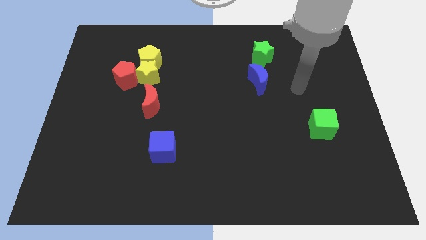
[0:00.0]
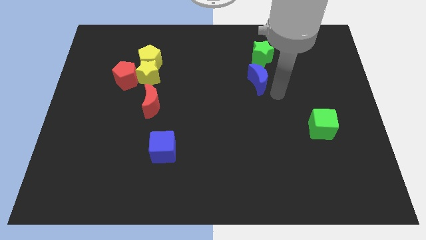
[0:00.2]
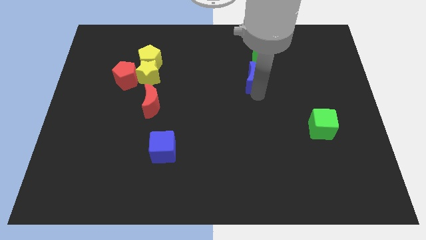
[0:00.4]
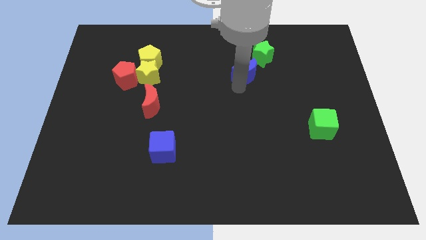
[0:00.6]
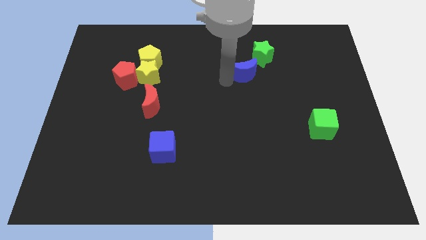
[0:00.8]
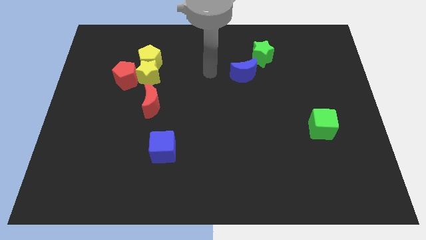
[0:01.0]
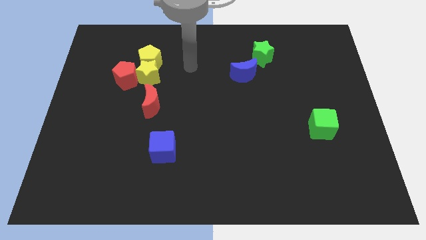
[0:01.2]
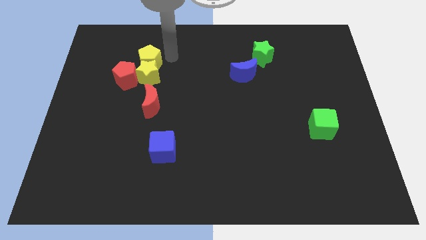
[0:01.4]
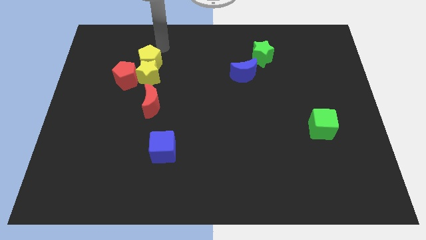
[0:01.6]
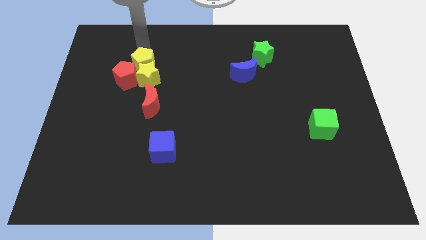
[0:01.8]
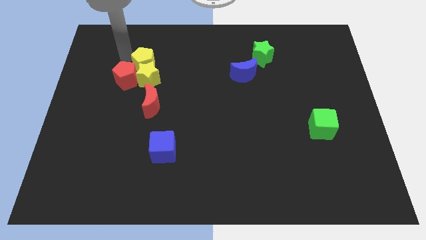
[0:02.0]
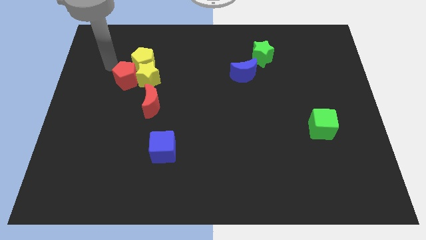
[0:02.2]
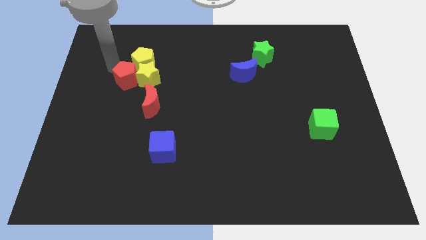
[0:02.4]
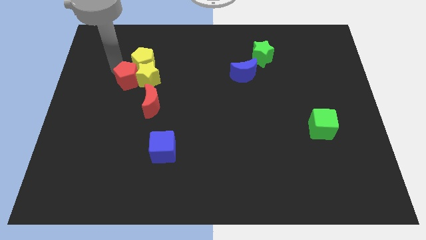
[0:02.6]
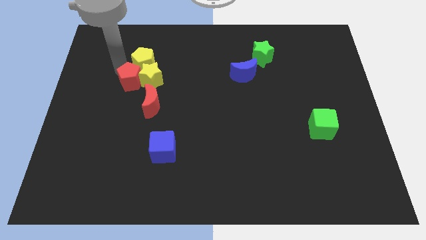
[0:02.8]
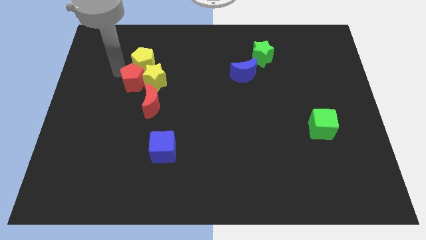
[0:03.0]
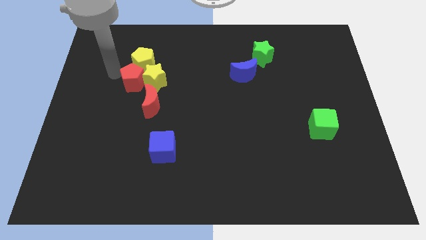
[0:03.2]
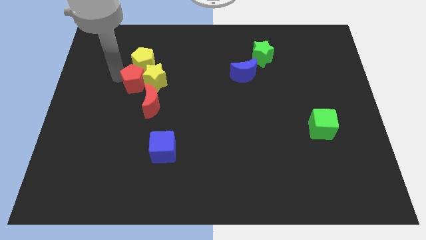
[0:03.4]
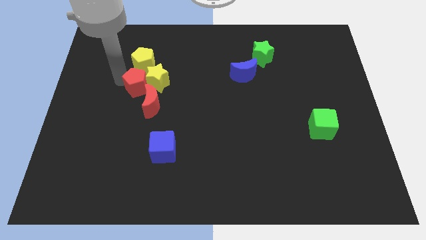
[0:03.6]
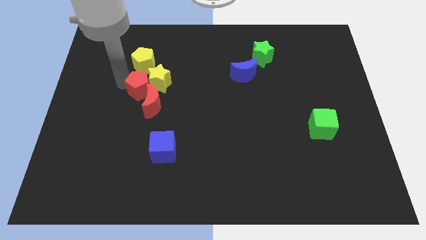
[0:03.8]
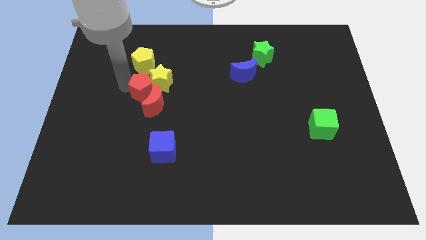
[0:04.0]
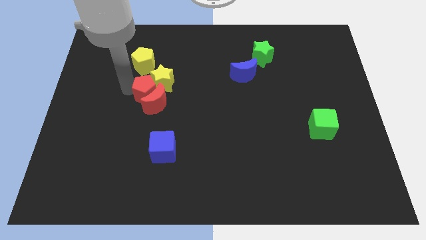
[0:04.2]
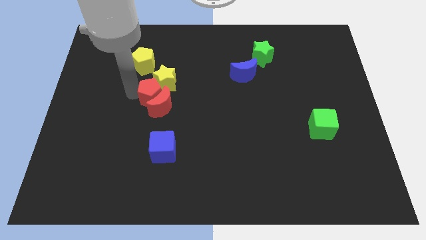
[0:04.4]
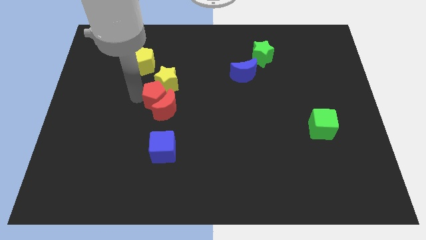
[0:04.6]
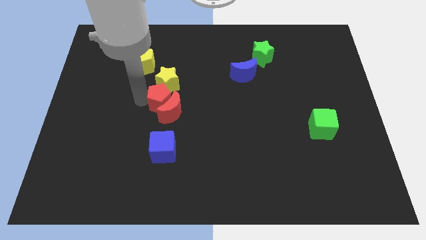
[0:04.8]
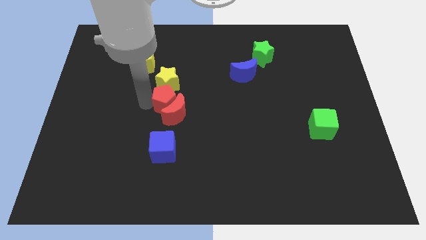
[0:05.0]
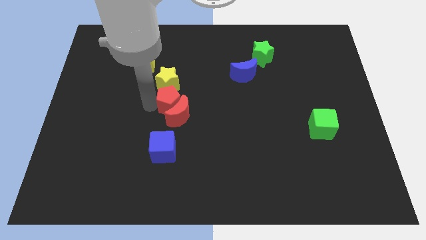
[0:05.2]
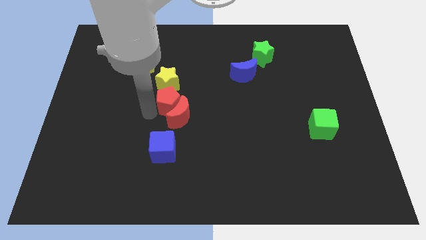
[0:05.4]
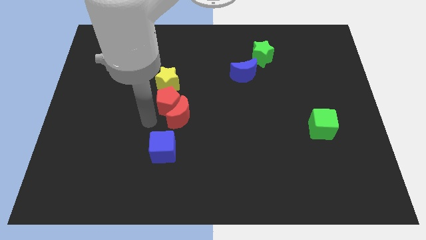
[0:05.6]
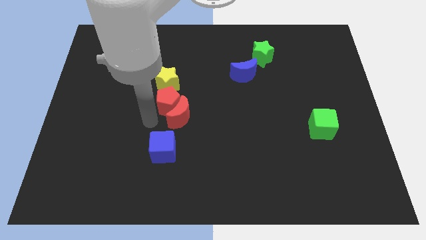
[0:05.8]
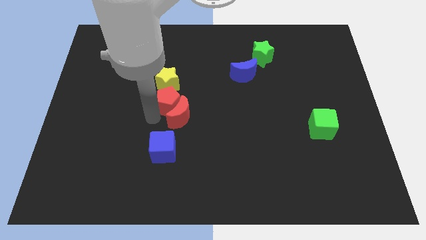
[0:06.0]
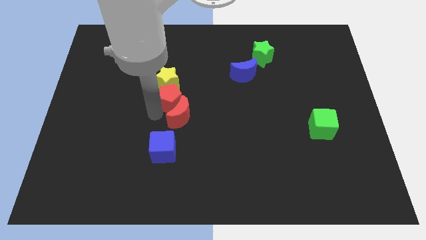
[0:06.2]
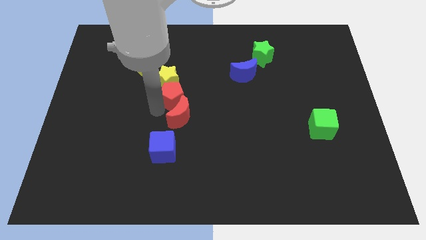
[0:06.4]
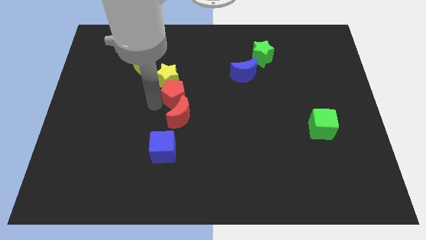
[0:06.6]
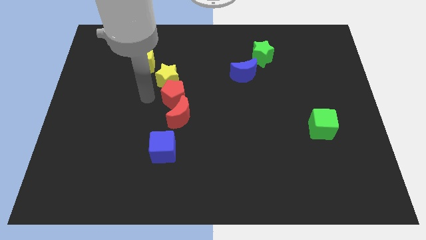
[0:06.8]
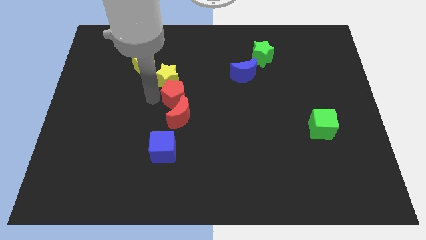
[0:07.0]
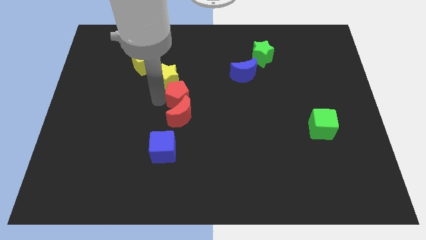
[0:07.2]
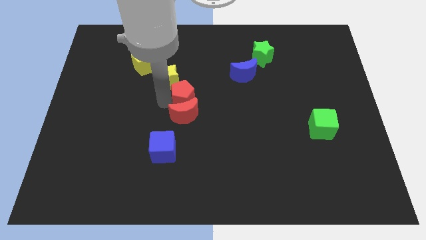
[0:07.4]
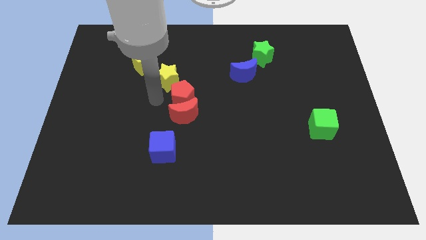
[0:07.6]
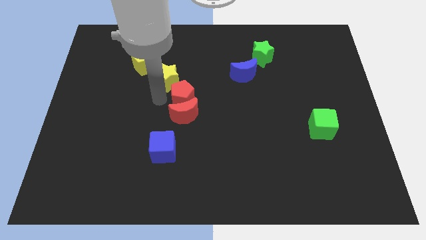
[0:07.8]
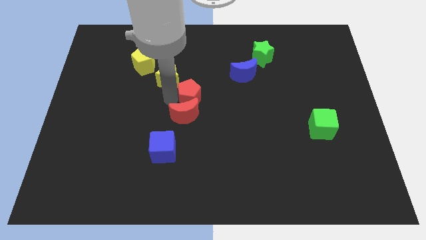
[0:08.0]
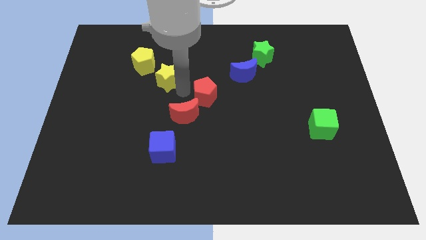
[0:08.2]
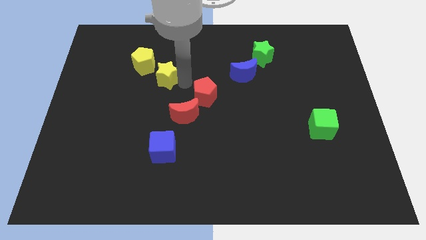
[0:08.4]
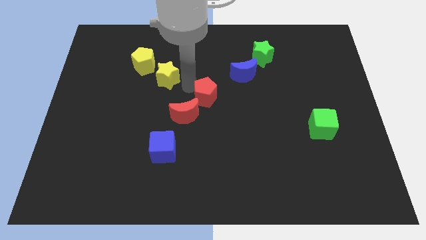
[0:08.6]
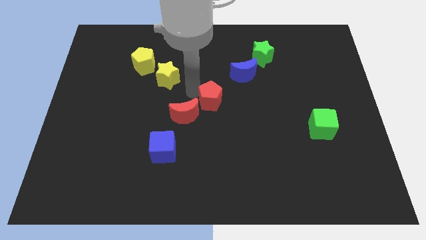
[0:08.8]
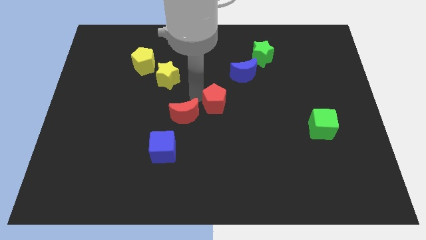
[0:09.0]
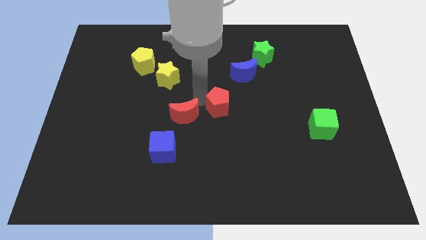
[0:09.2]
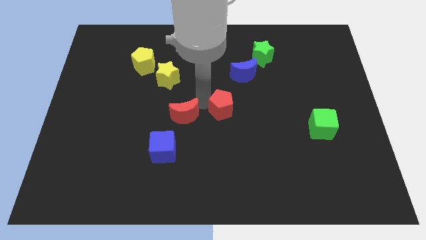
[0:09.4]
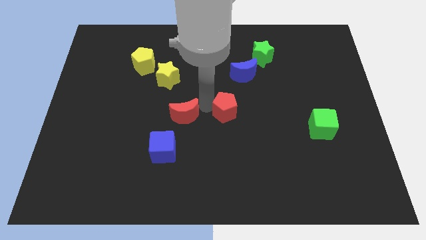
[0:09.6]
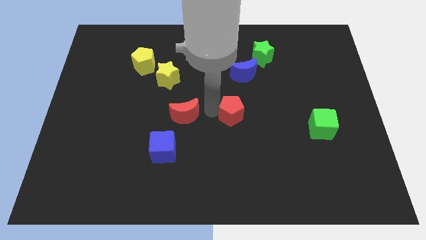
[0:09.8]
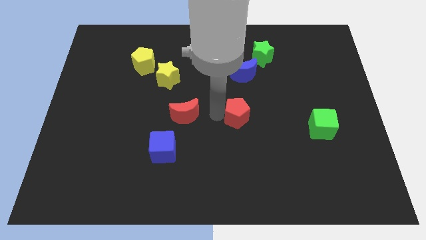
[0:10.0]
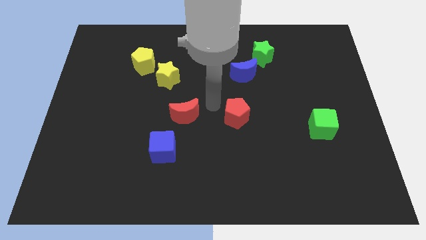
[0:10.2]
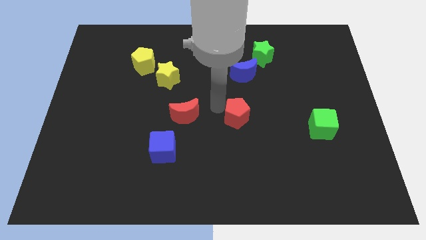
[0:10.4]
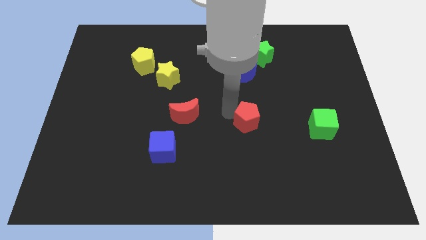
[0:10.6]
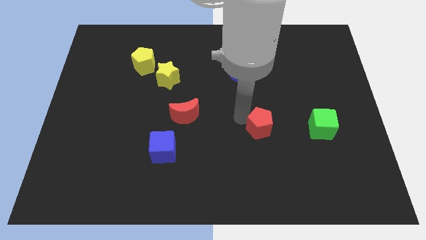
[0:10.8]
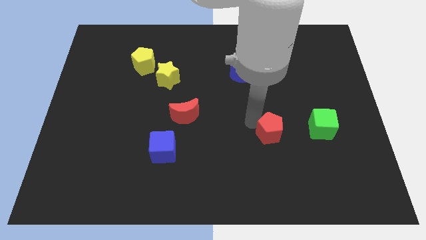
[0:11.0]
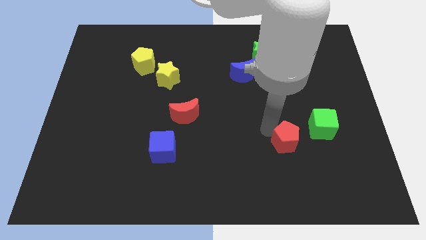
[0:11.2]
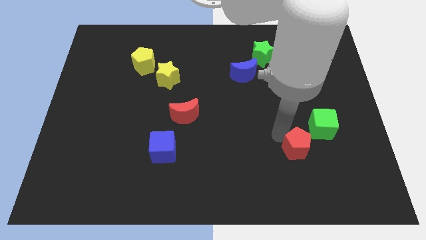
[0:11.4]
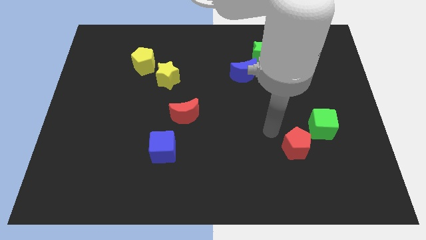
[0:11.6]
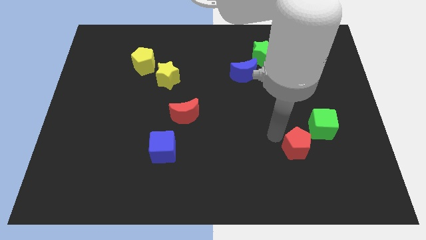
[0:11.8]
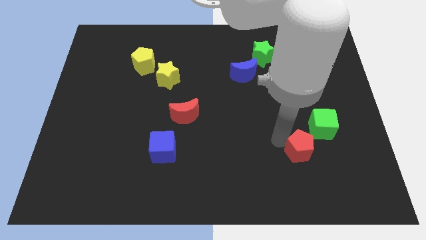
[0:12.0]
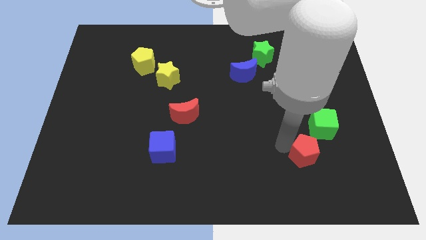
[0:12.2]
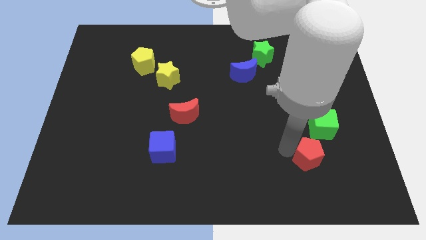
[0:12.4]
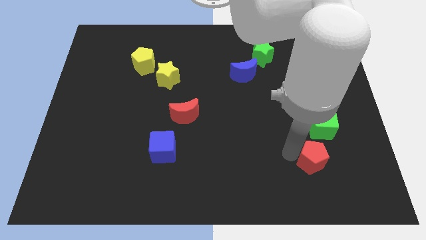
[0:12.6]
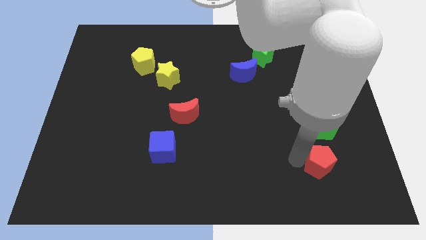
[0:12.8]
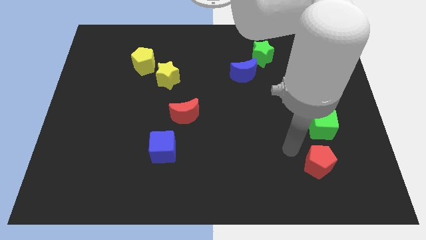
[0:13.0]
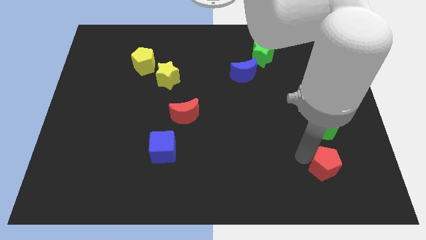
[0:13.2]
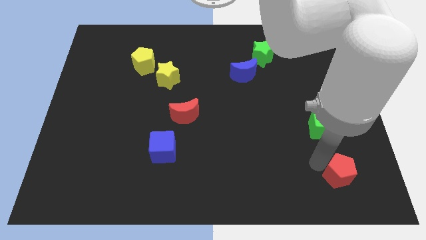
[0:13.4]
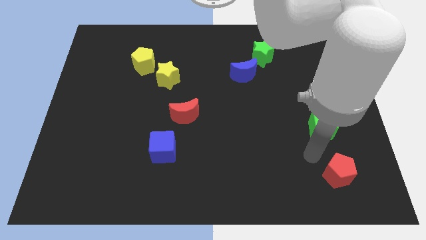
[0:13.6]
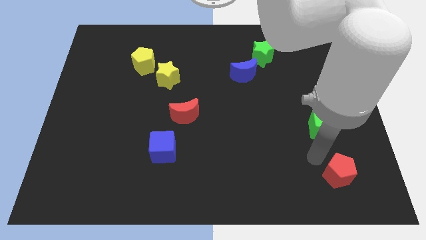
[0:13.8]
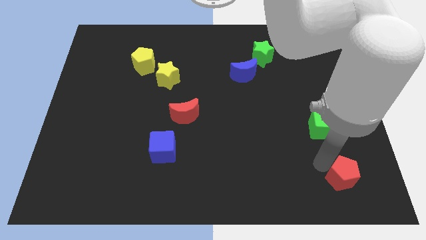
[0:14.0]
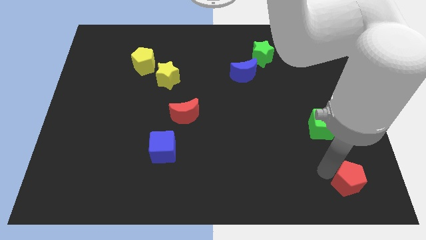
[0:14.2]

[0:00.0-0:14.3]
move the red pentagon to the bottom right
